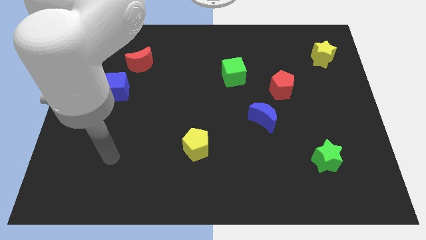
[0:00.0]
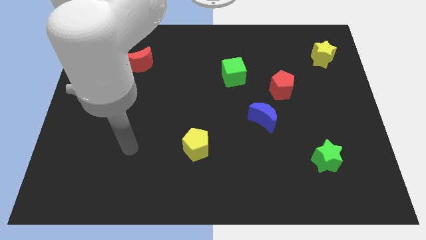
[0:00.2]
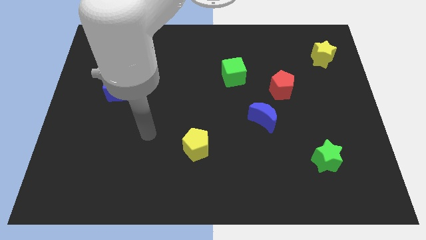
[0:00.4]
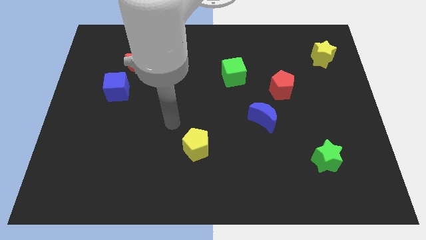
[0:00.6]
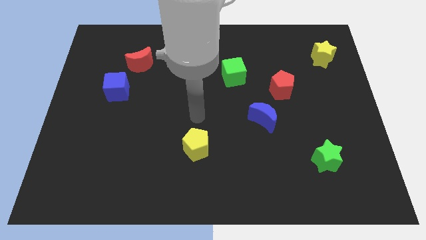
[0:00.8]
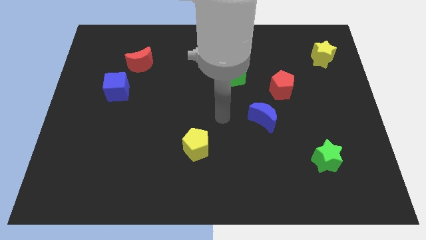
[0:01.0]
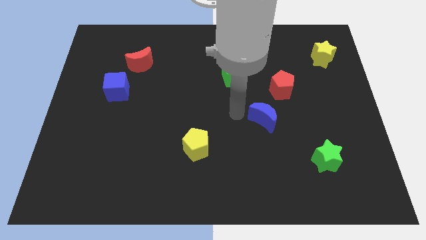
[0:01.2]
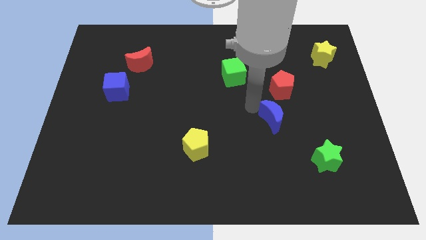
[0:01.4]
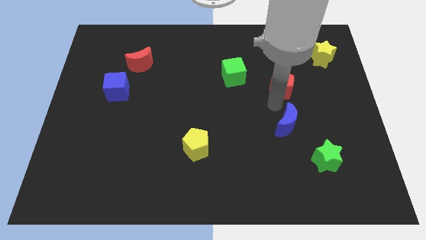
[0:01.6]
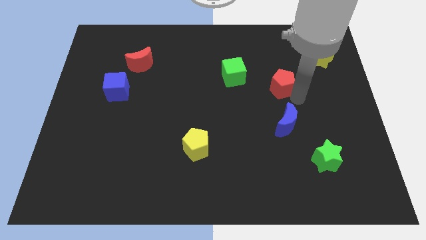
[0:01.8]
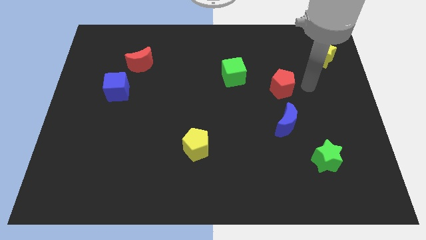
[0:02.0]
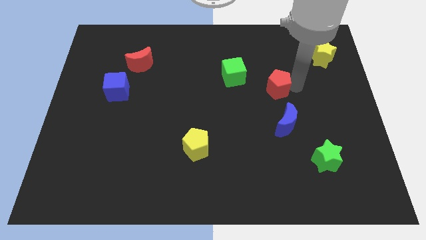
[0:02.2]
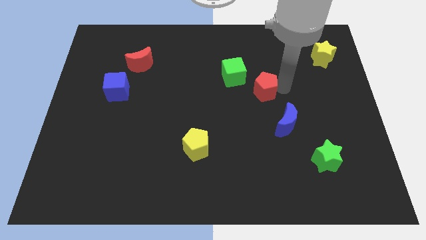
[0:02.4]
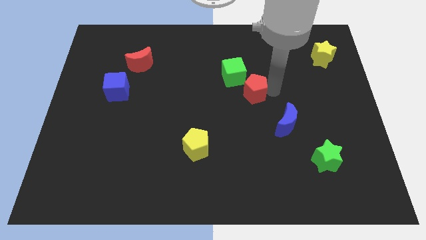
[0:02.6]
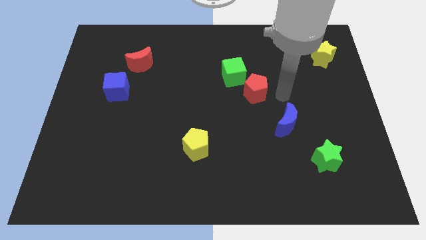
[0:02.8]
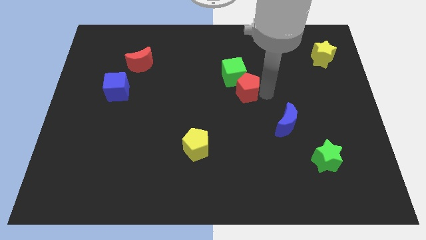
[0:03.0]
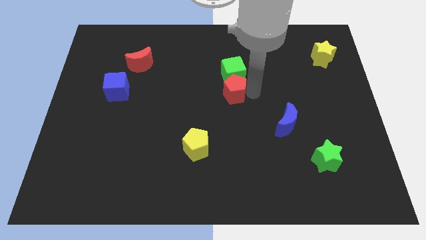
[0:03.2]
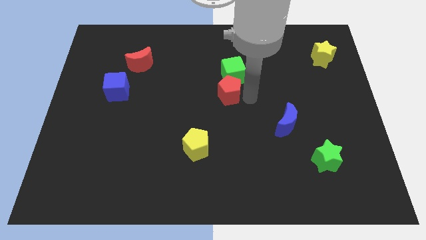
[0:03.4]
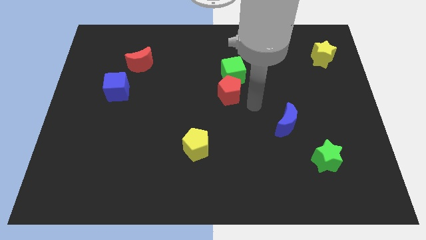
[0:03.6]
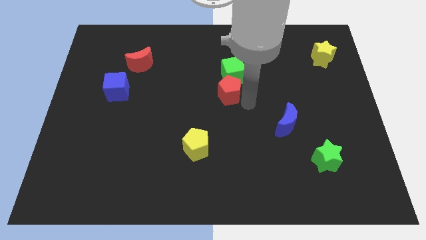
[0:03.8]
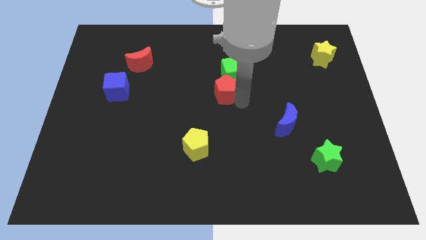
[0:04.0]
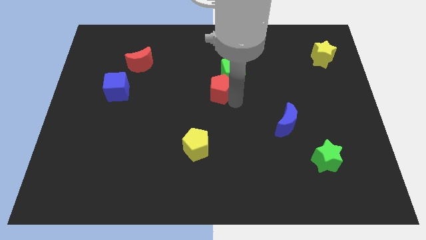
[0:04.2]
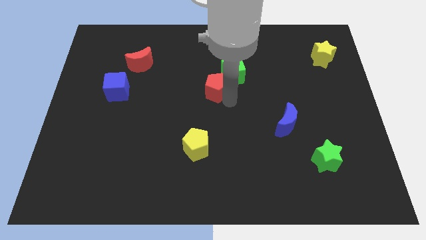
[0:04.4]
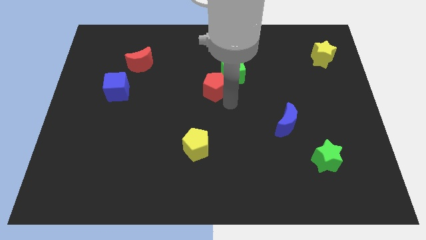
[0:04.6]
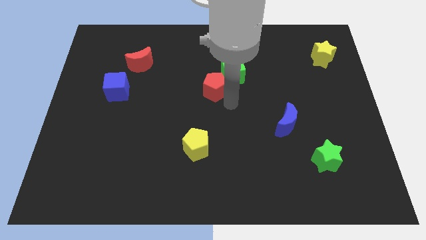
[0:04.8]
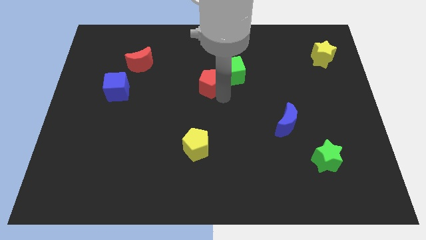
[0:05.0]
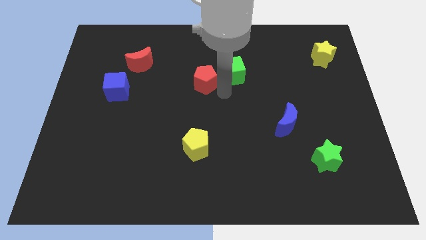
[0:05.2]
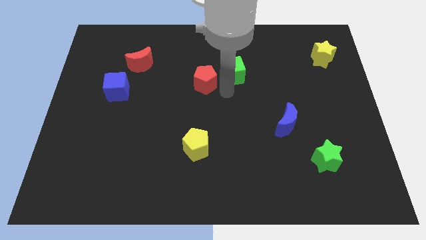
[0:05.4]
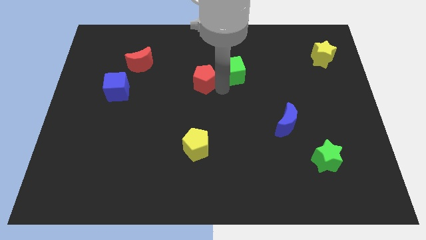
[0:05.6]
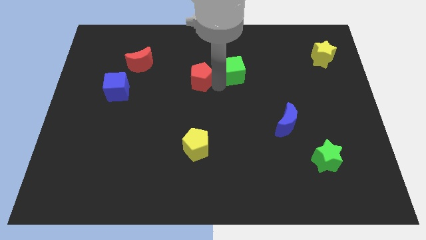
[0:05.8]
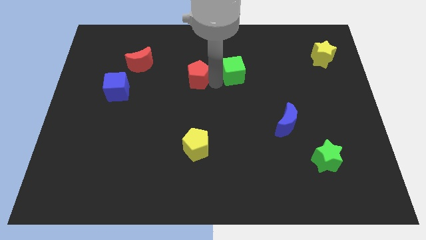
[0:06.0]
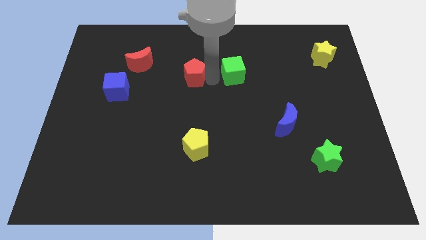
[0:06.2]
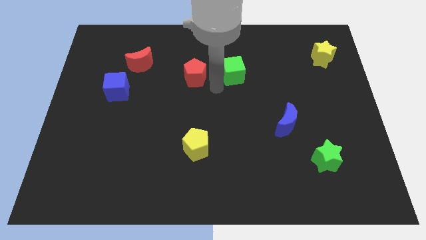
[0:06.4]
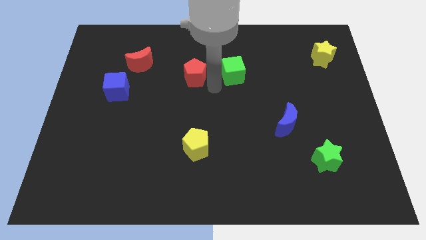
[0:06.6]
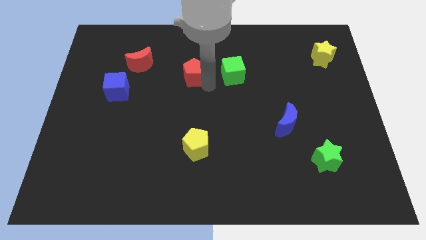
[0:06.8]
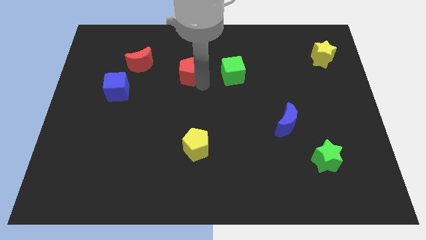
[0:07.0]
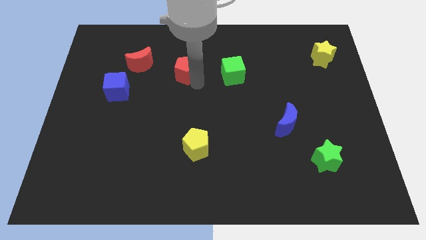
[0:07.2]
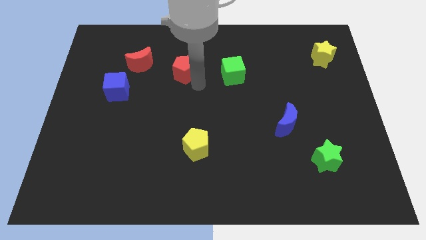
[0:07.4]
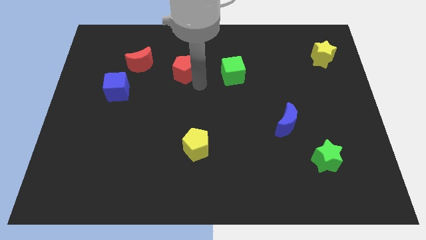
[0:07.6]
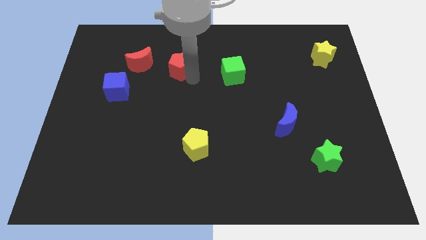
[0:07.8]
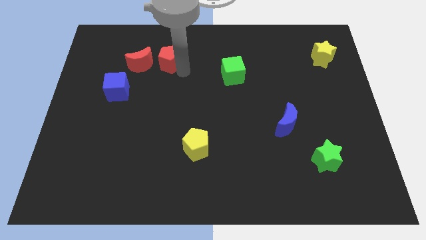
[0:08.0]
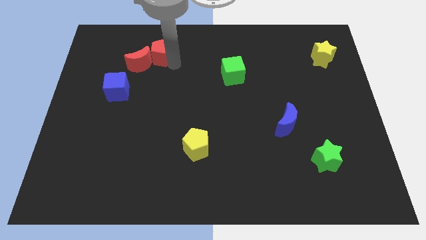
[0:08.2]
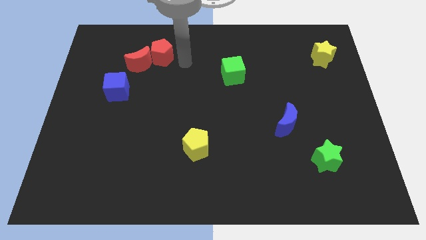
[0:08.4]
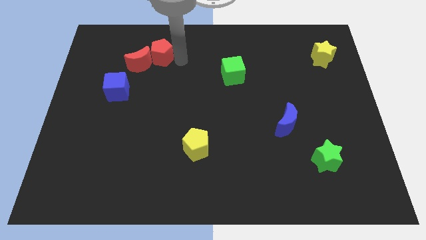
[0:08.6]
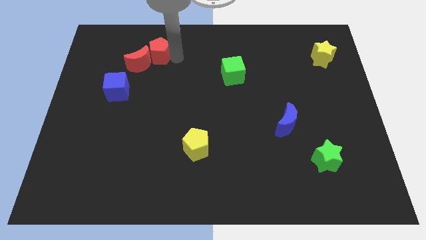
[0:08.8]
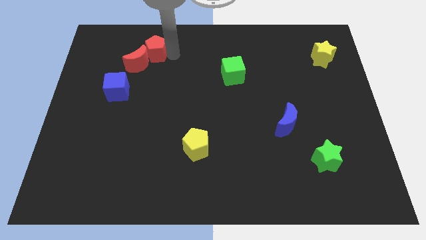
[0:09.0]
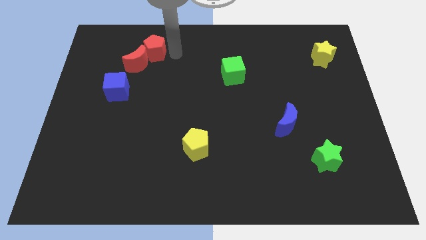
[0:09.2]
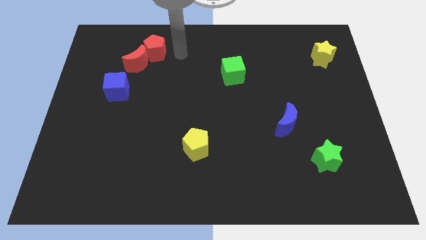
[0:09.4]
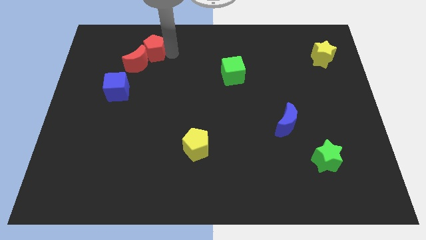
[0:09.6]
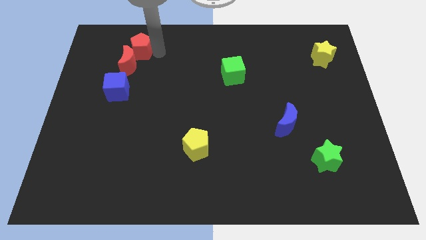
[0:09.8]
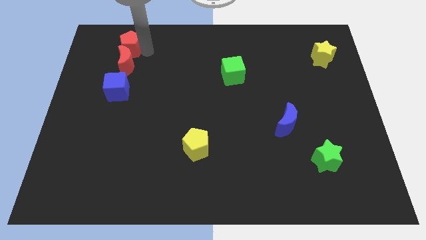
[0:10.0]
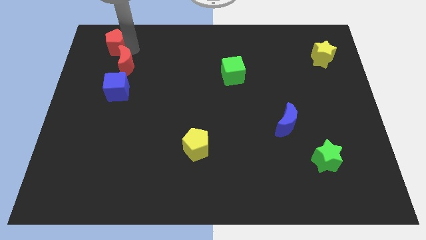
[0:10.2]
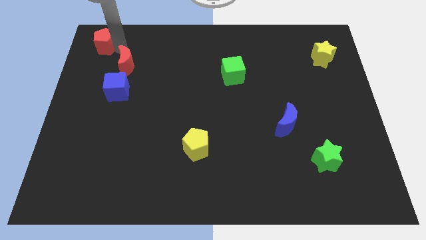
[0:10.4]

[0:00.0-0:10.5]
move the red pentagon to the top left

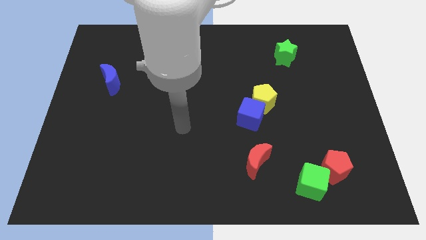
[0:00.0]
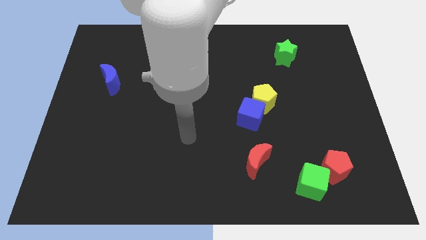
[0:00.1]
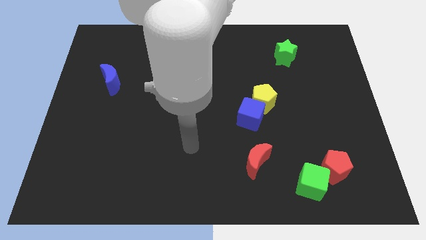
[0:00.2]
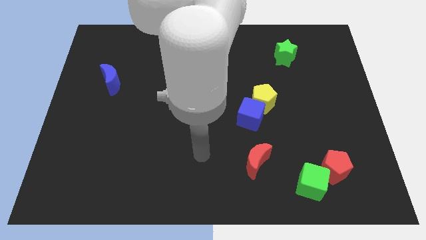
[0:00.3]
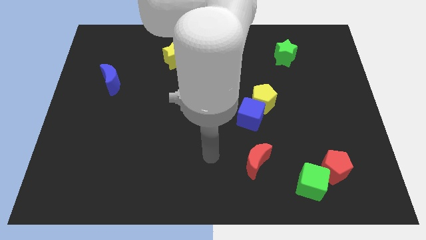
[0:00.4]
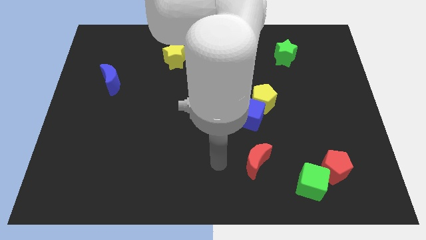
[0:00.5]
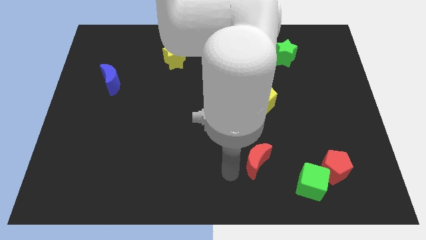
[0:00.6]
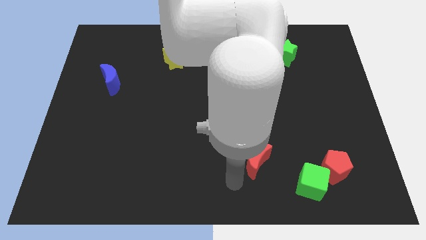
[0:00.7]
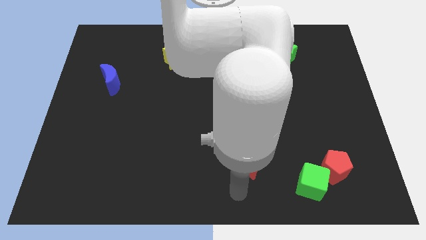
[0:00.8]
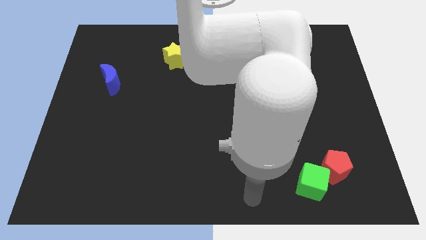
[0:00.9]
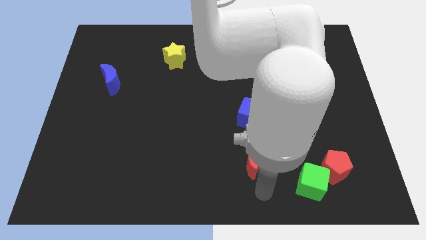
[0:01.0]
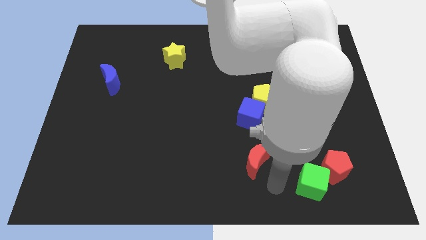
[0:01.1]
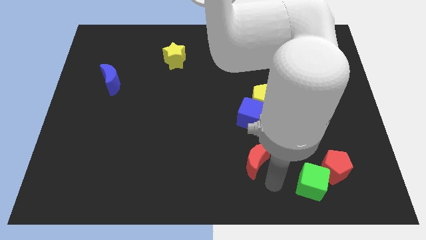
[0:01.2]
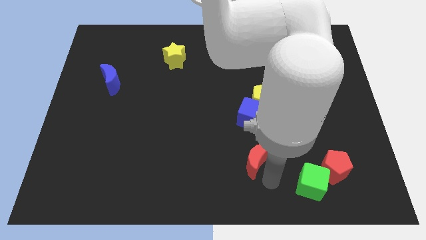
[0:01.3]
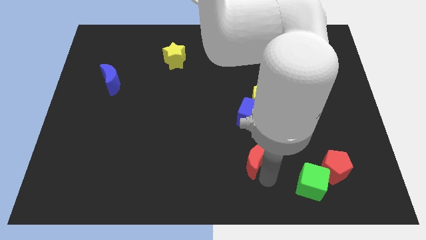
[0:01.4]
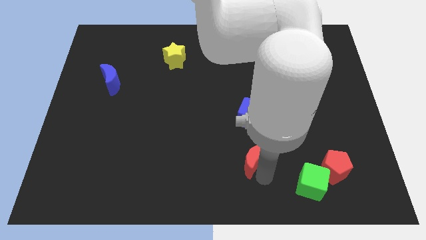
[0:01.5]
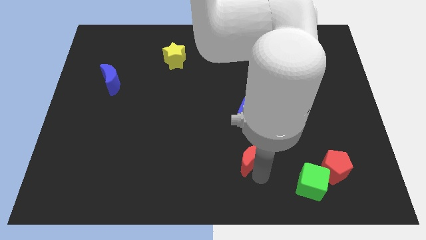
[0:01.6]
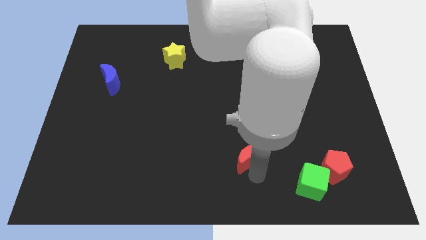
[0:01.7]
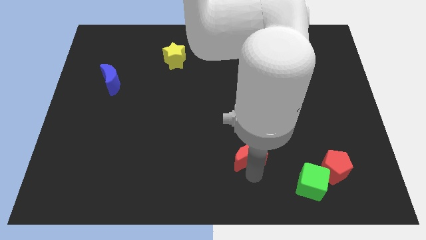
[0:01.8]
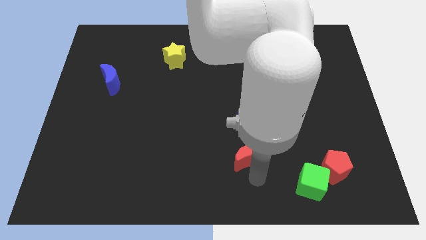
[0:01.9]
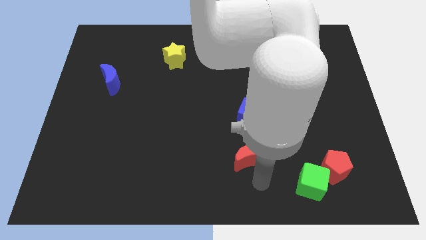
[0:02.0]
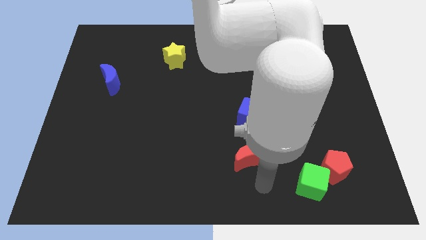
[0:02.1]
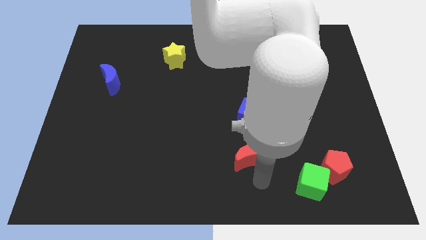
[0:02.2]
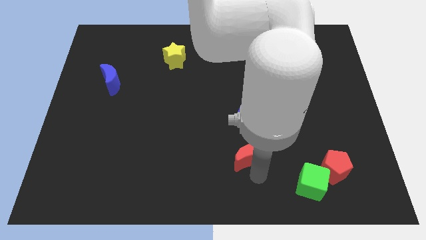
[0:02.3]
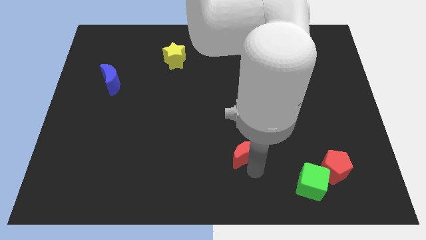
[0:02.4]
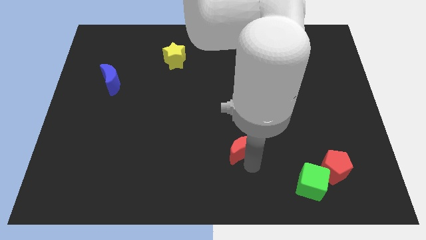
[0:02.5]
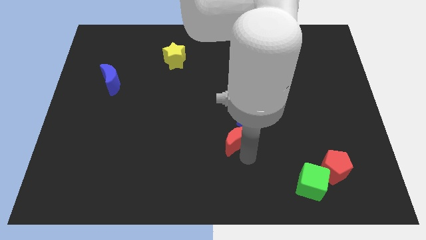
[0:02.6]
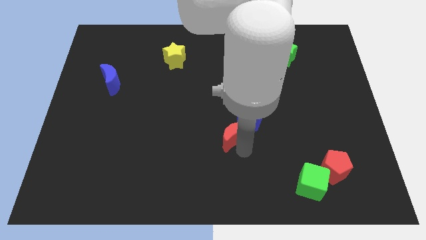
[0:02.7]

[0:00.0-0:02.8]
slide the red moon to the center
